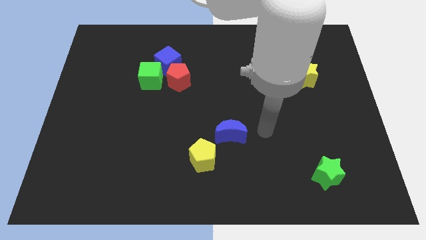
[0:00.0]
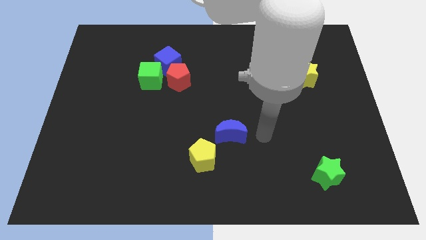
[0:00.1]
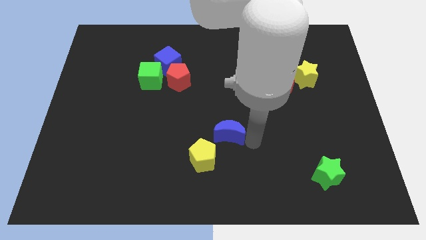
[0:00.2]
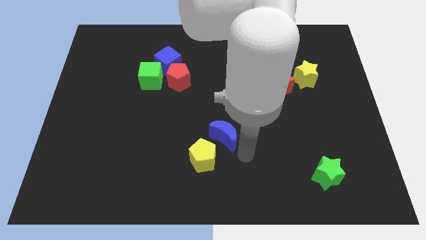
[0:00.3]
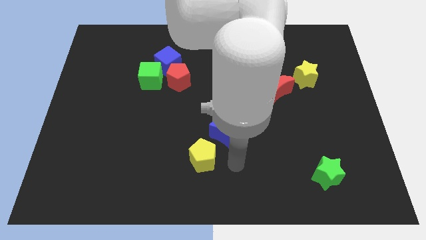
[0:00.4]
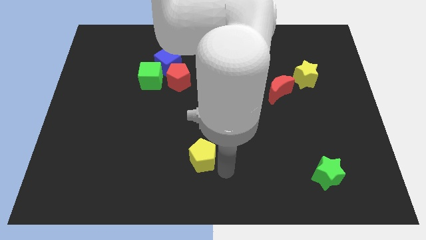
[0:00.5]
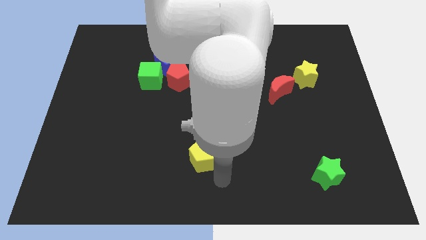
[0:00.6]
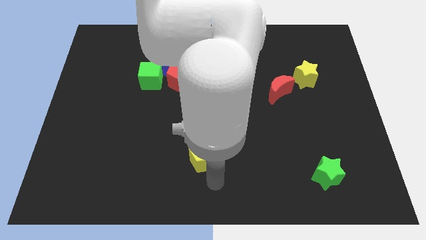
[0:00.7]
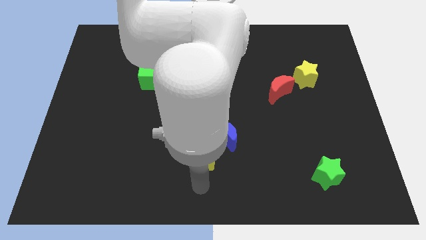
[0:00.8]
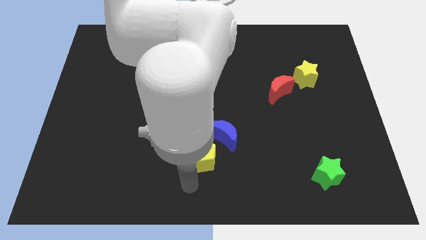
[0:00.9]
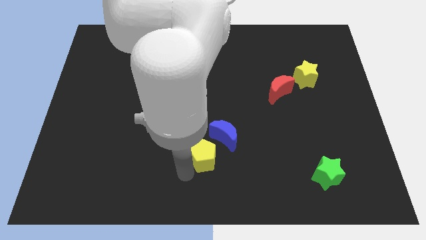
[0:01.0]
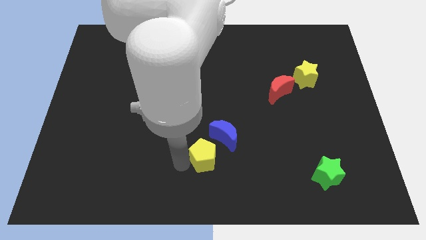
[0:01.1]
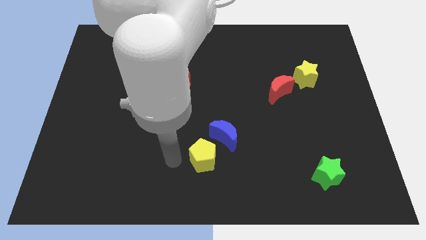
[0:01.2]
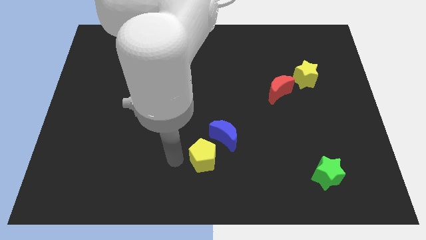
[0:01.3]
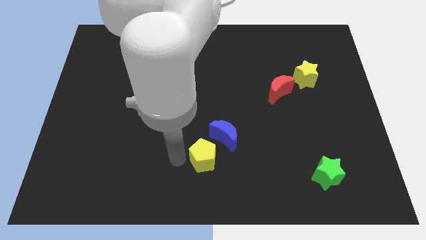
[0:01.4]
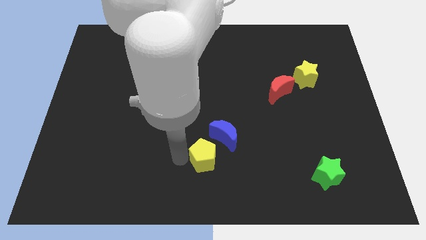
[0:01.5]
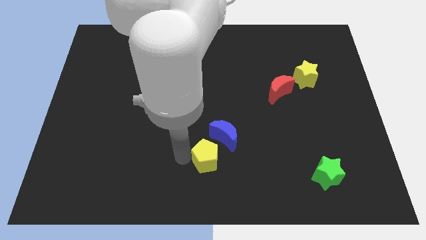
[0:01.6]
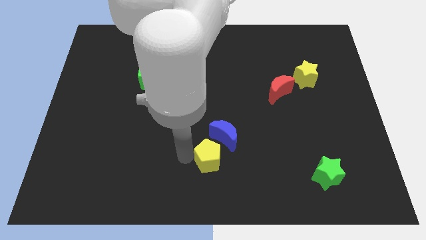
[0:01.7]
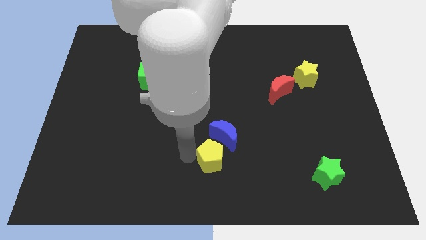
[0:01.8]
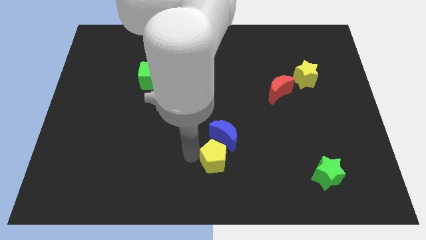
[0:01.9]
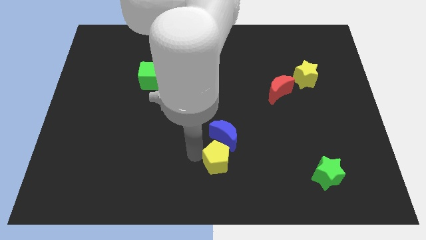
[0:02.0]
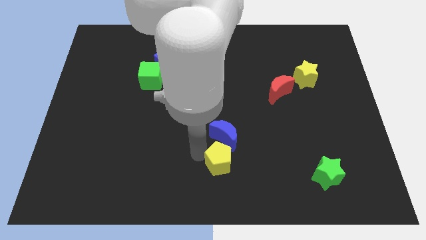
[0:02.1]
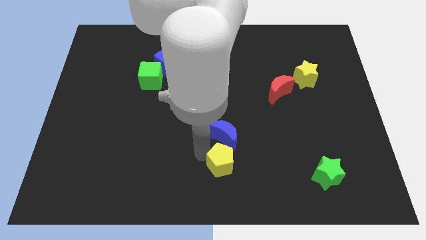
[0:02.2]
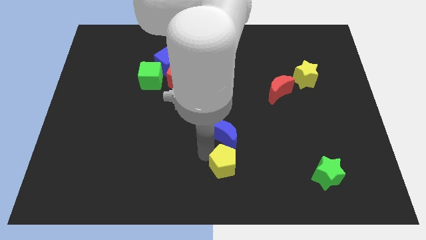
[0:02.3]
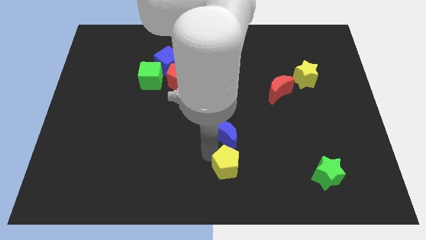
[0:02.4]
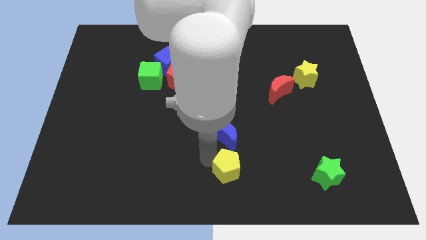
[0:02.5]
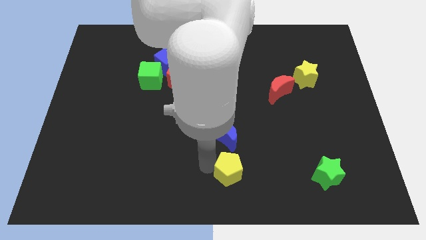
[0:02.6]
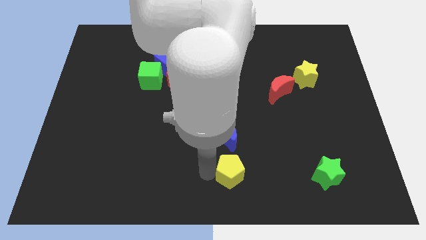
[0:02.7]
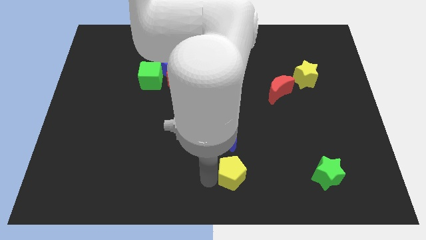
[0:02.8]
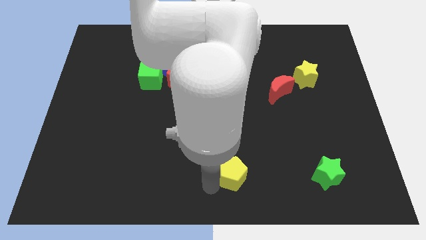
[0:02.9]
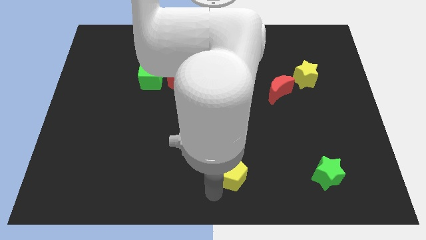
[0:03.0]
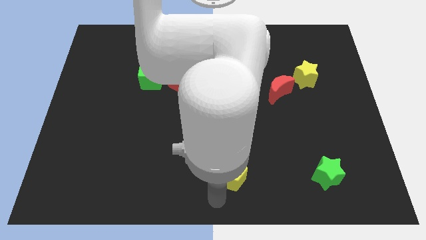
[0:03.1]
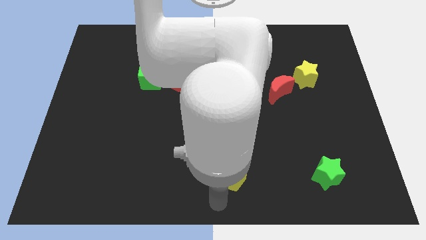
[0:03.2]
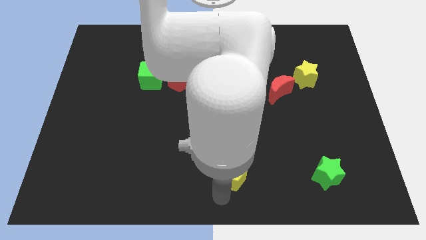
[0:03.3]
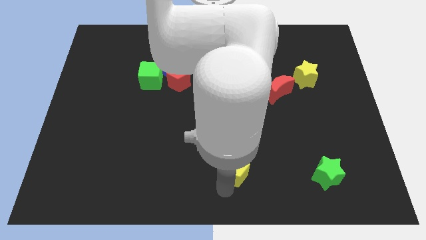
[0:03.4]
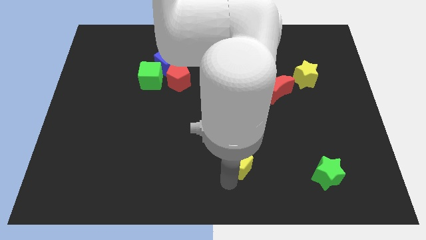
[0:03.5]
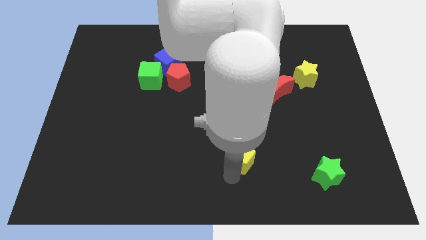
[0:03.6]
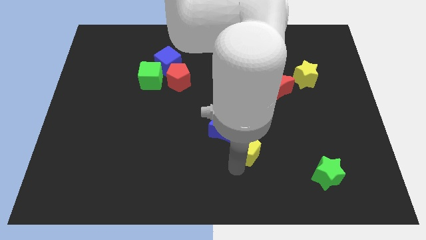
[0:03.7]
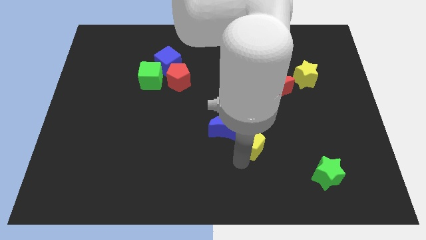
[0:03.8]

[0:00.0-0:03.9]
push the yellow pentagon a little up and right

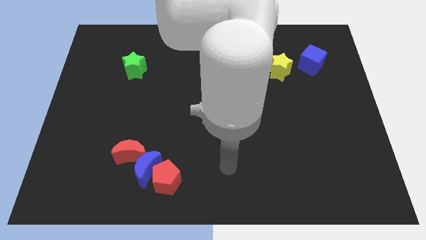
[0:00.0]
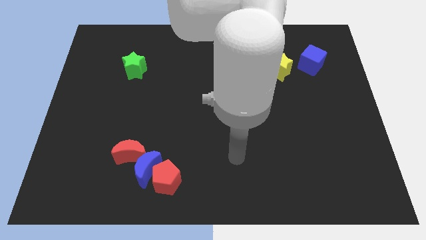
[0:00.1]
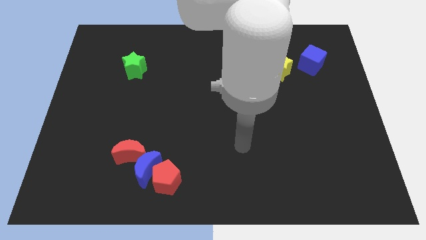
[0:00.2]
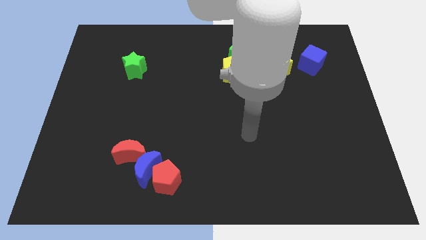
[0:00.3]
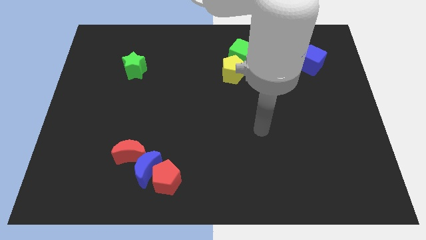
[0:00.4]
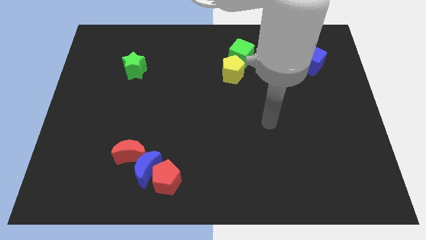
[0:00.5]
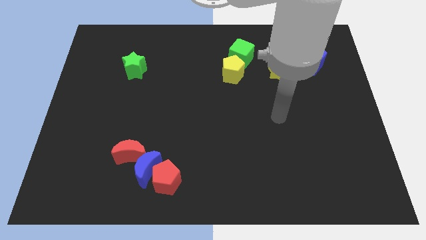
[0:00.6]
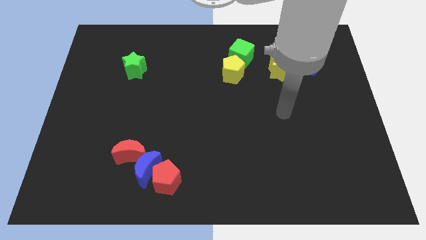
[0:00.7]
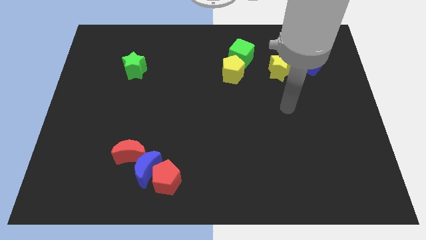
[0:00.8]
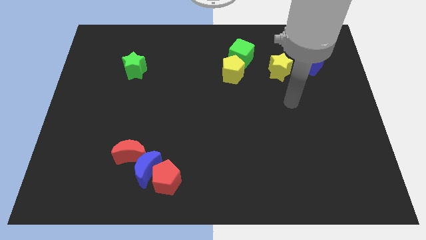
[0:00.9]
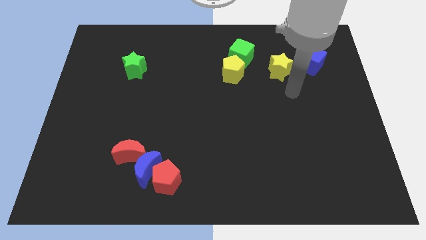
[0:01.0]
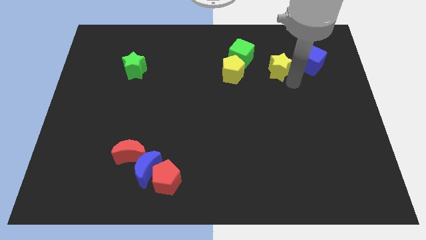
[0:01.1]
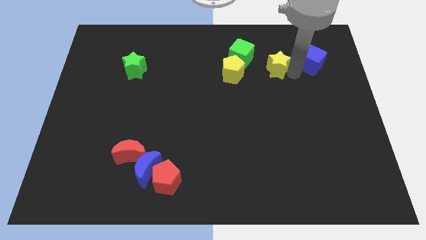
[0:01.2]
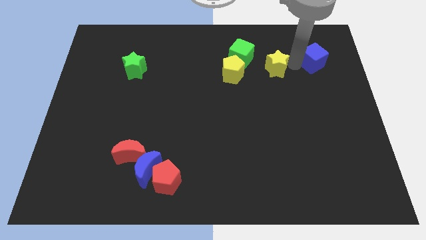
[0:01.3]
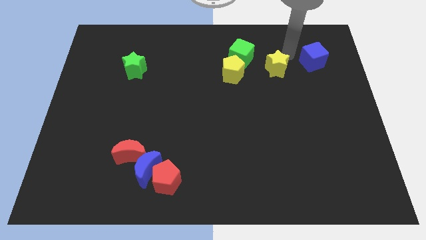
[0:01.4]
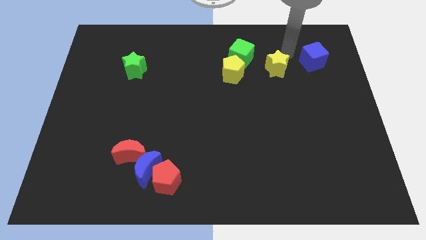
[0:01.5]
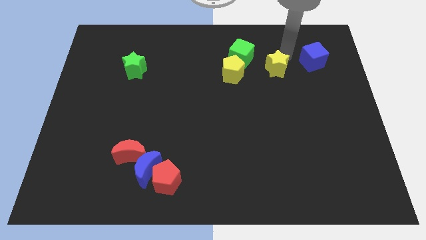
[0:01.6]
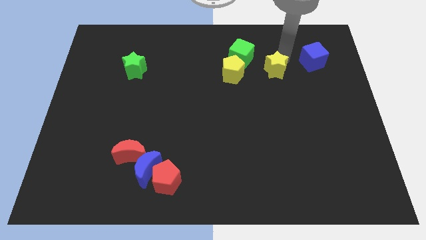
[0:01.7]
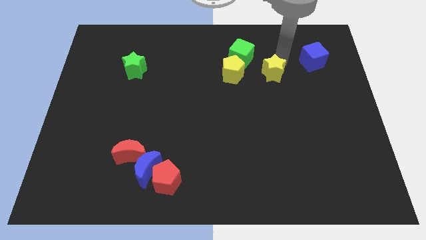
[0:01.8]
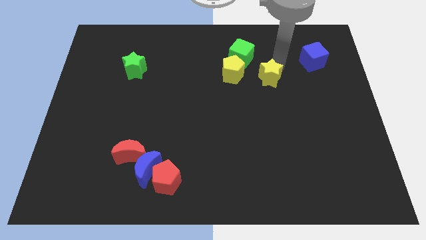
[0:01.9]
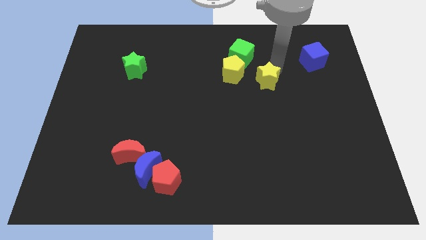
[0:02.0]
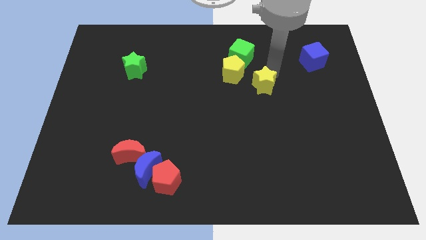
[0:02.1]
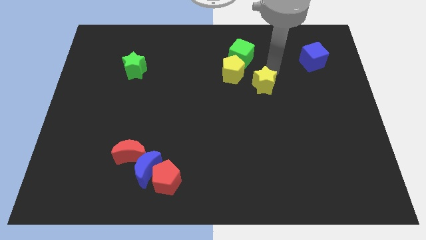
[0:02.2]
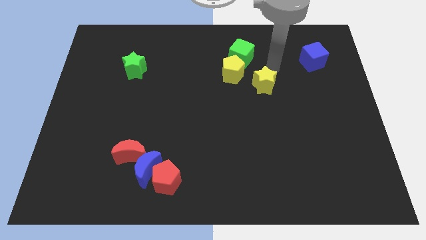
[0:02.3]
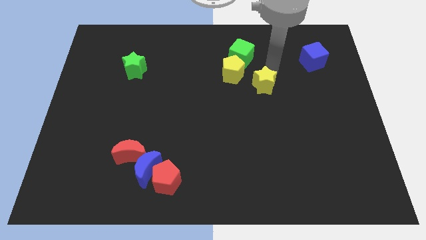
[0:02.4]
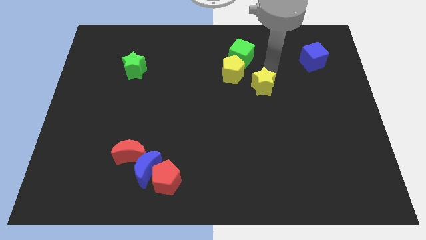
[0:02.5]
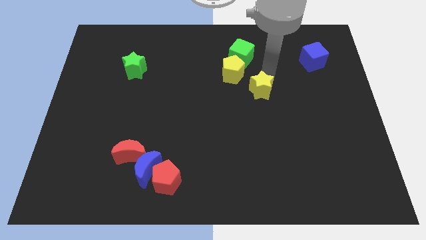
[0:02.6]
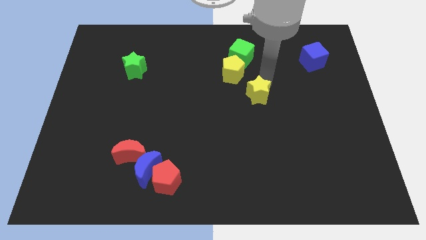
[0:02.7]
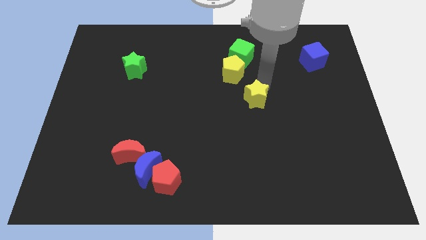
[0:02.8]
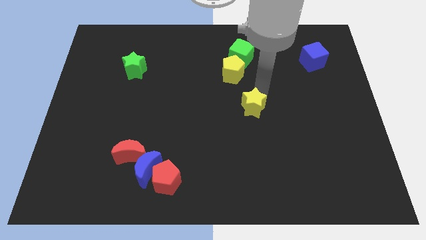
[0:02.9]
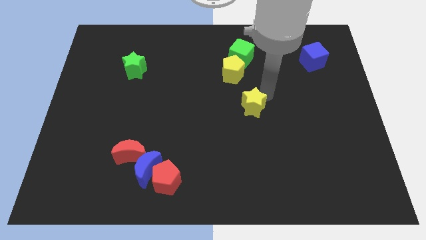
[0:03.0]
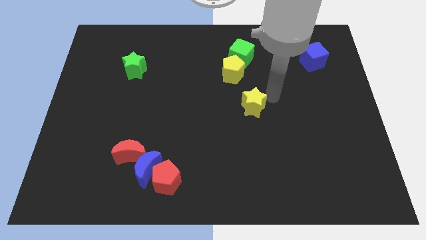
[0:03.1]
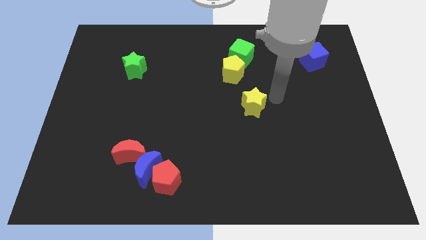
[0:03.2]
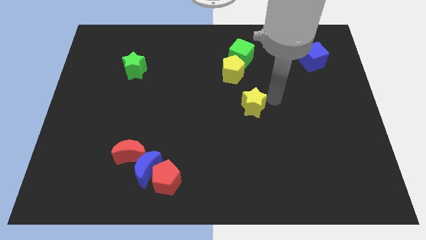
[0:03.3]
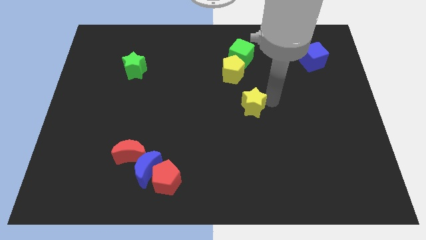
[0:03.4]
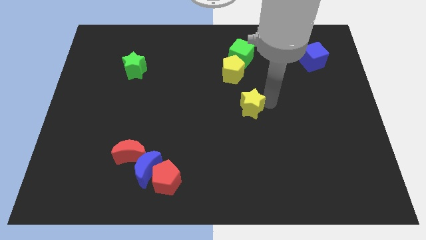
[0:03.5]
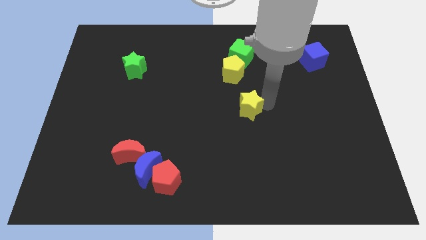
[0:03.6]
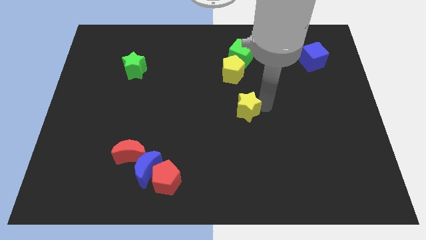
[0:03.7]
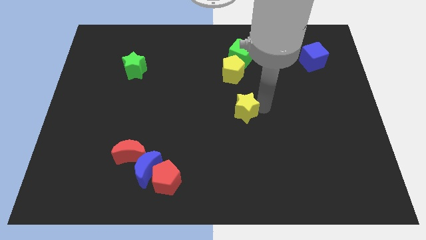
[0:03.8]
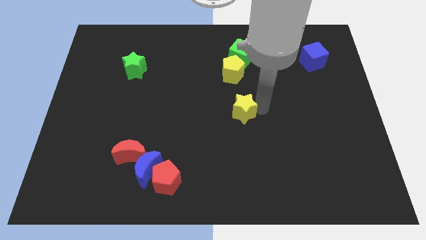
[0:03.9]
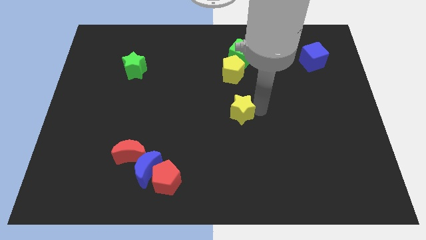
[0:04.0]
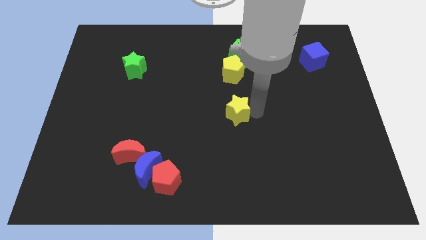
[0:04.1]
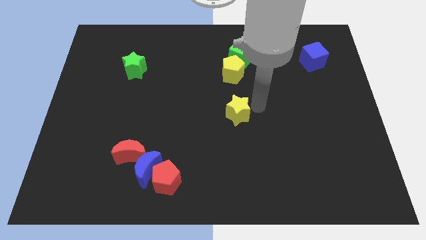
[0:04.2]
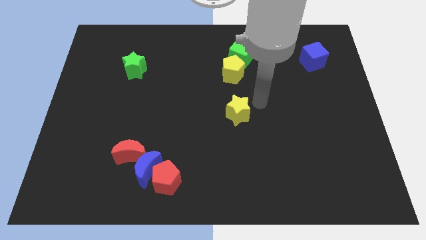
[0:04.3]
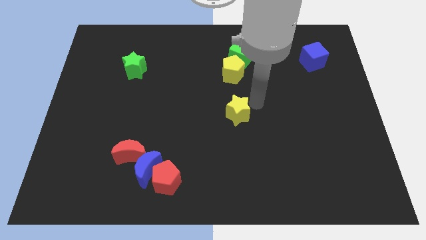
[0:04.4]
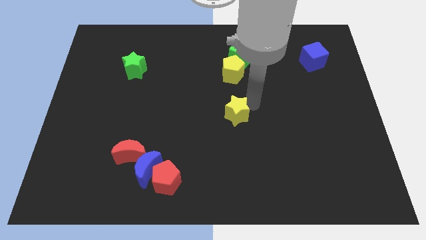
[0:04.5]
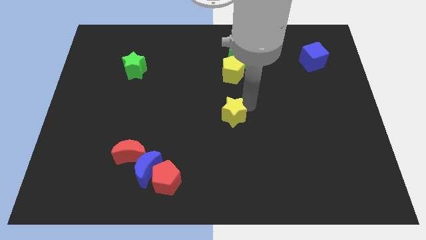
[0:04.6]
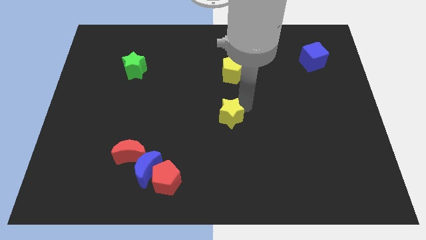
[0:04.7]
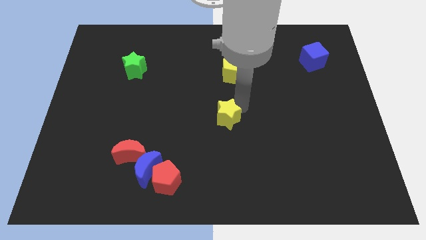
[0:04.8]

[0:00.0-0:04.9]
move the yellow star downwards and then to the left
